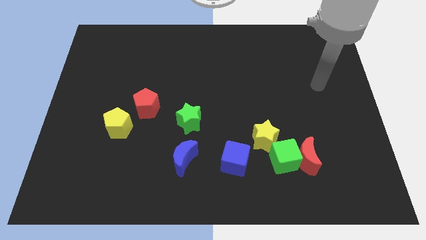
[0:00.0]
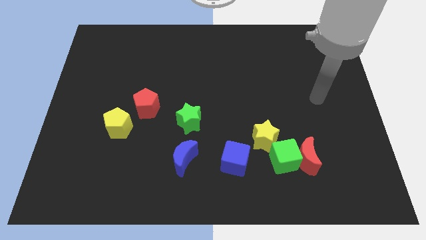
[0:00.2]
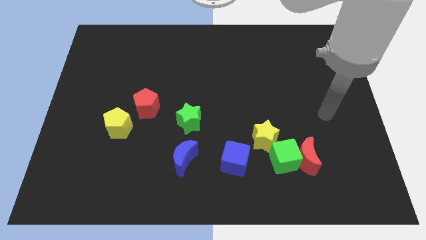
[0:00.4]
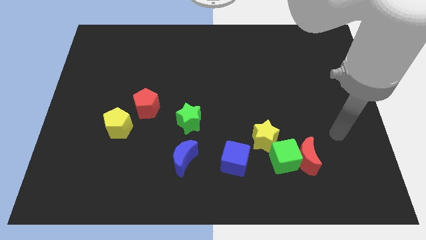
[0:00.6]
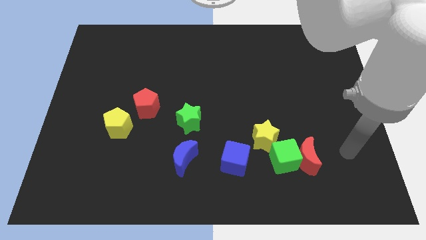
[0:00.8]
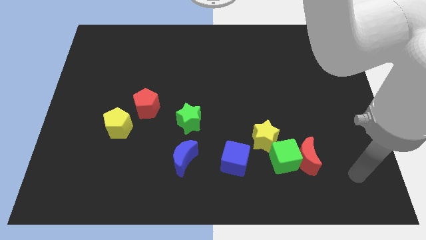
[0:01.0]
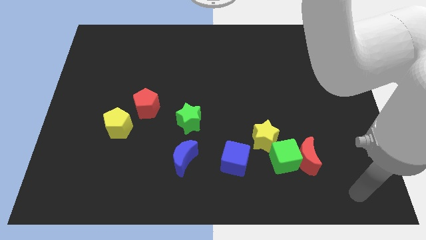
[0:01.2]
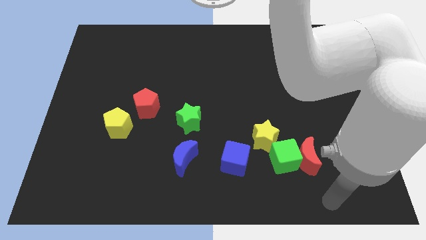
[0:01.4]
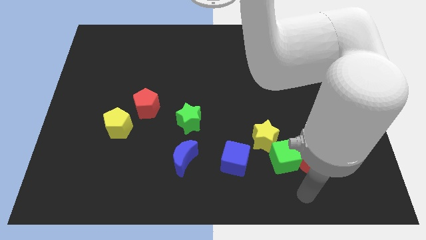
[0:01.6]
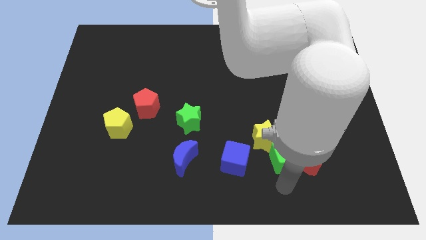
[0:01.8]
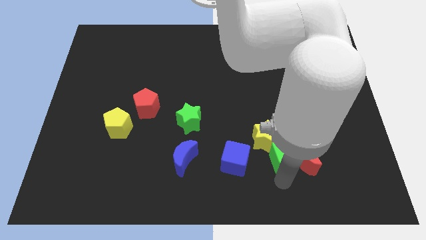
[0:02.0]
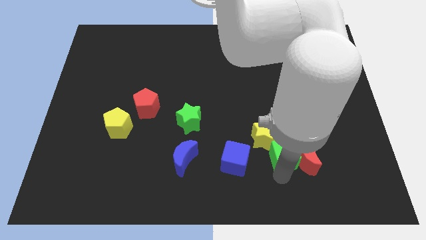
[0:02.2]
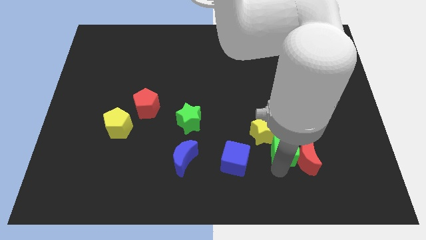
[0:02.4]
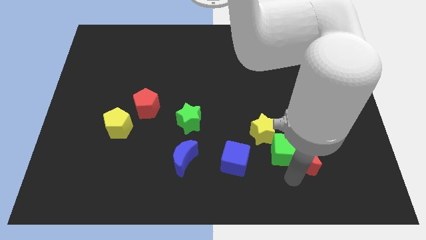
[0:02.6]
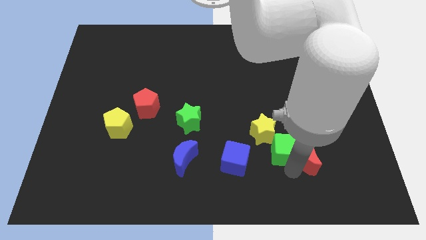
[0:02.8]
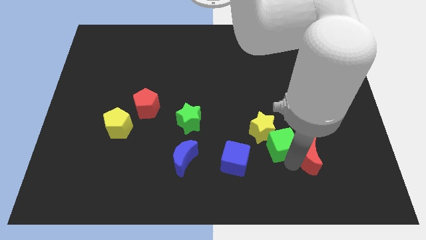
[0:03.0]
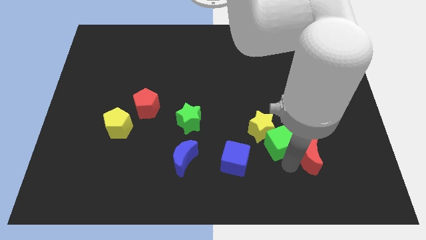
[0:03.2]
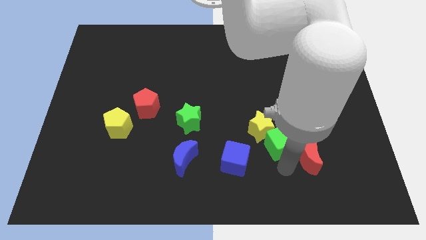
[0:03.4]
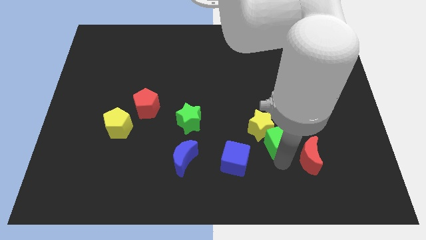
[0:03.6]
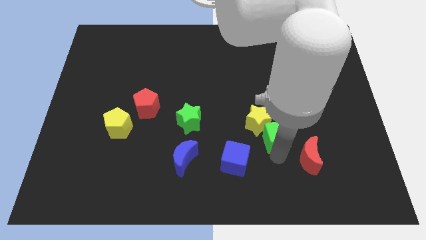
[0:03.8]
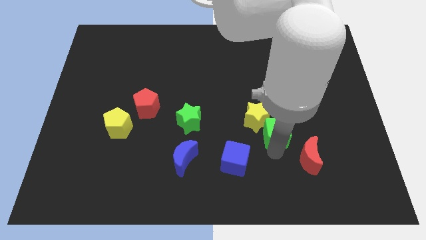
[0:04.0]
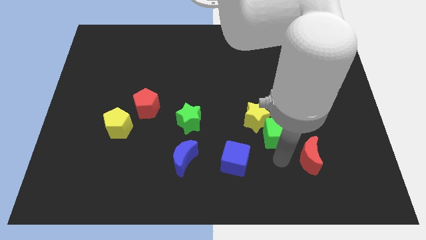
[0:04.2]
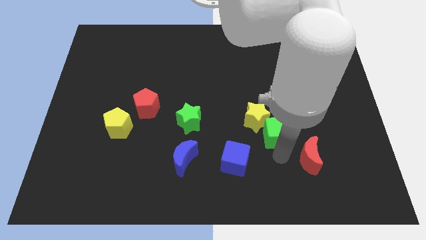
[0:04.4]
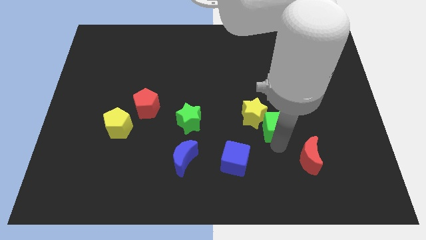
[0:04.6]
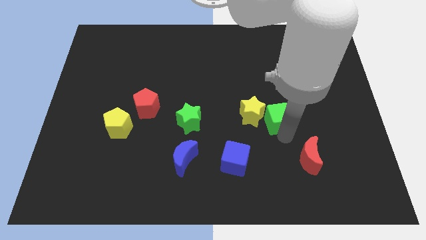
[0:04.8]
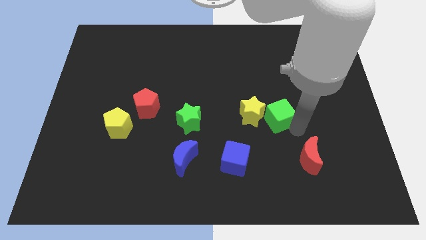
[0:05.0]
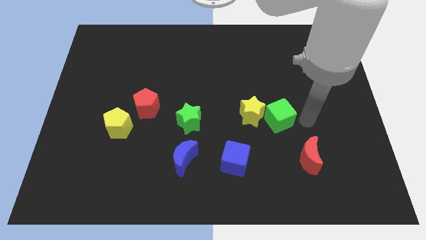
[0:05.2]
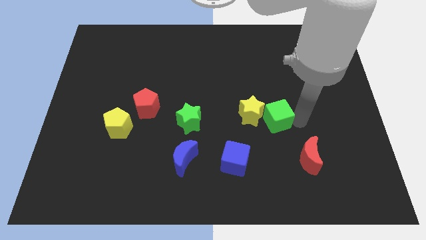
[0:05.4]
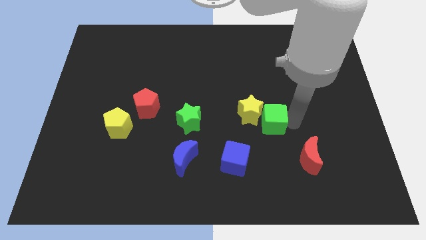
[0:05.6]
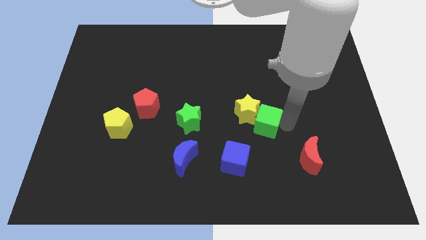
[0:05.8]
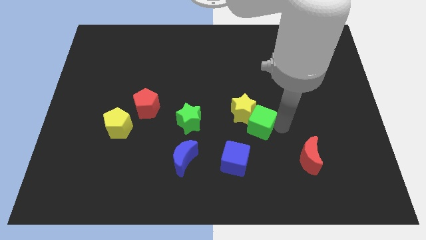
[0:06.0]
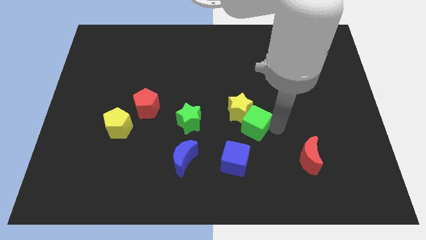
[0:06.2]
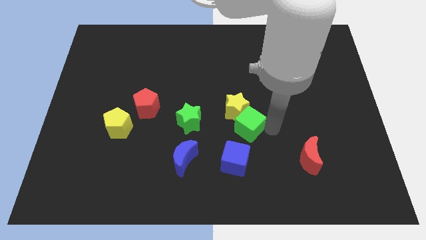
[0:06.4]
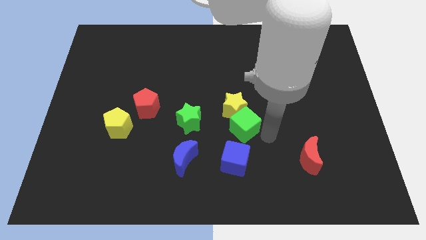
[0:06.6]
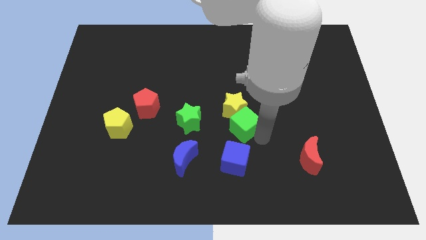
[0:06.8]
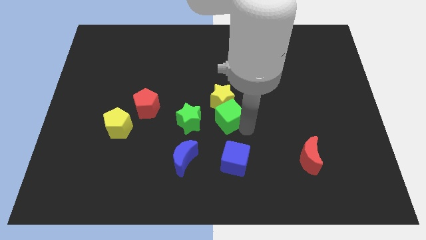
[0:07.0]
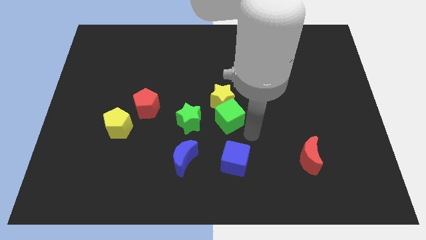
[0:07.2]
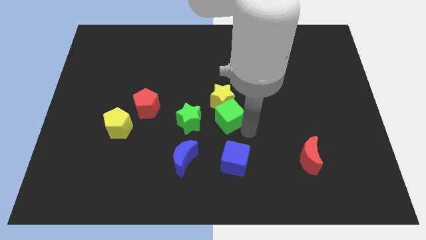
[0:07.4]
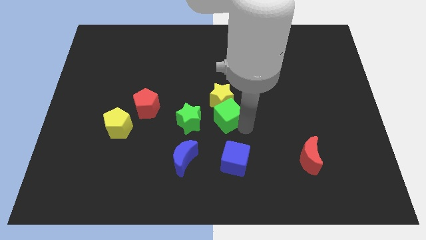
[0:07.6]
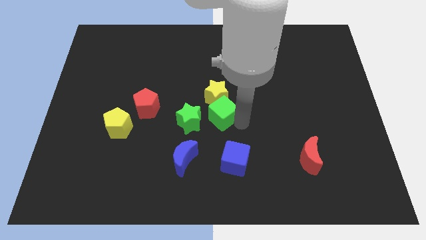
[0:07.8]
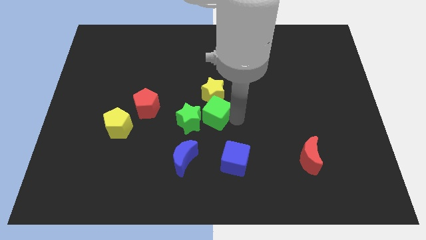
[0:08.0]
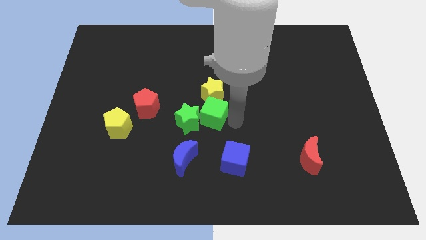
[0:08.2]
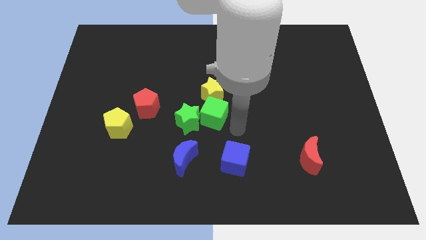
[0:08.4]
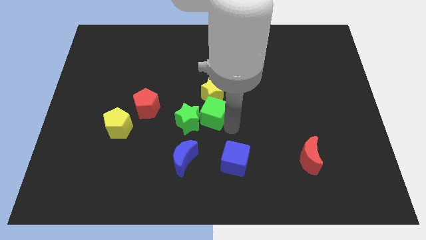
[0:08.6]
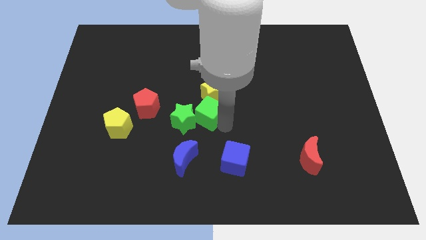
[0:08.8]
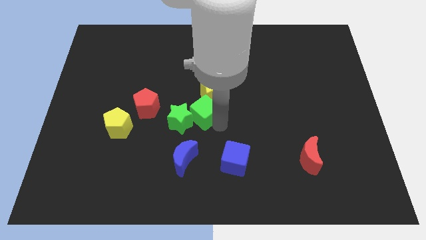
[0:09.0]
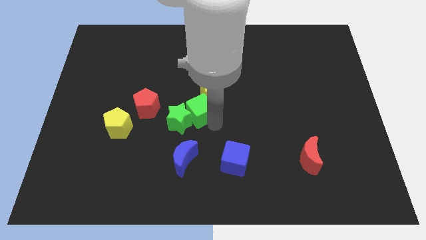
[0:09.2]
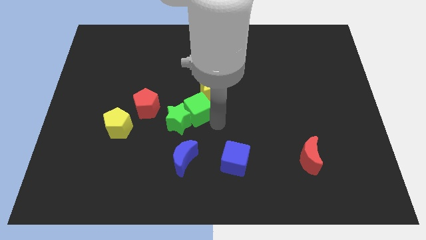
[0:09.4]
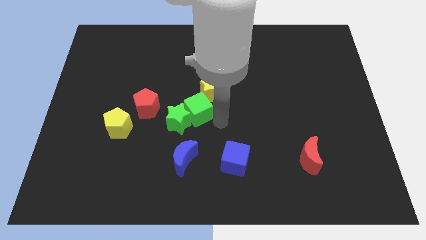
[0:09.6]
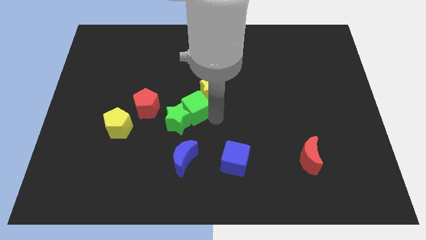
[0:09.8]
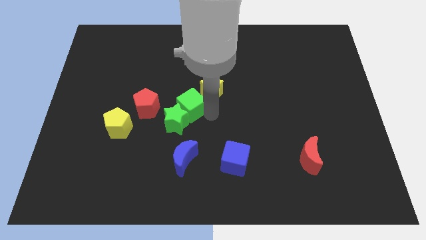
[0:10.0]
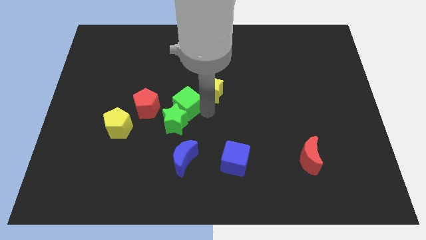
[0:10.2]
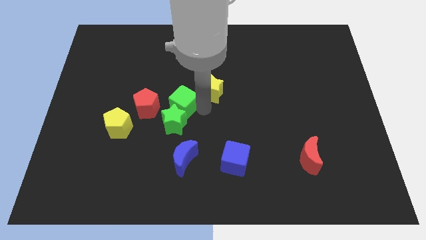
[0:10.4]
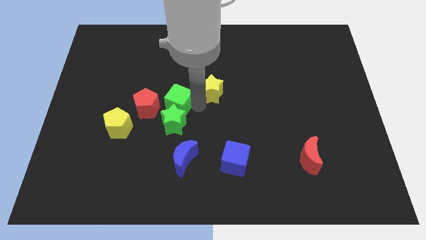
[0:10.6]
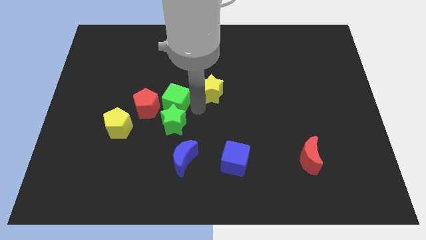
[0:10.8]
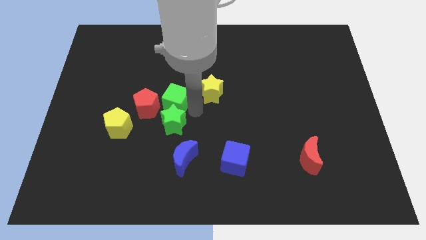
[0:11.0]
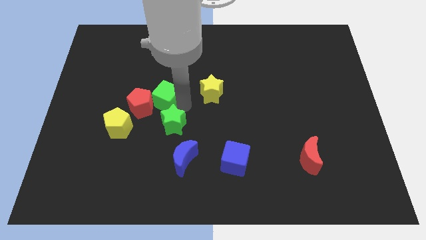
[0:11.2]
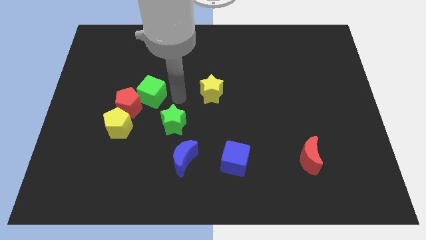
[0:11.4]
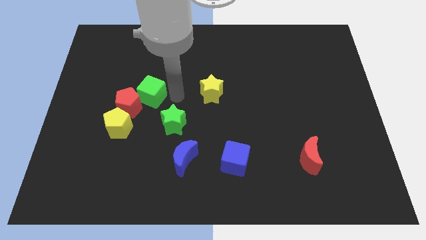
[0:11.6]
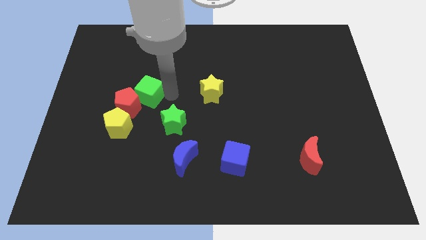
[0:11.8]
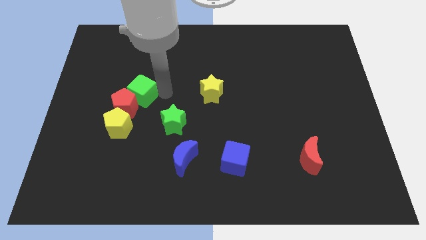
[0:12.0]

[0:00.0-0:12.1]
move the green cube to the top of the yellow pentagon

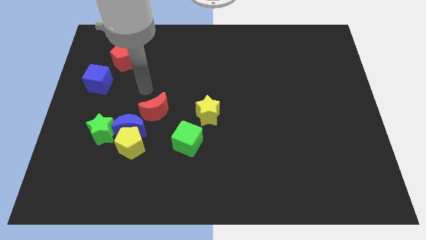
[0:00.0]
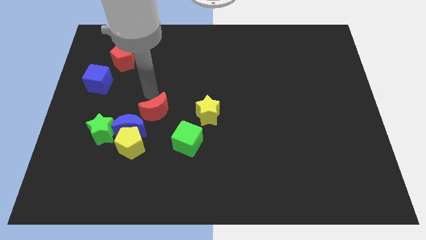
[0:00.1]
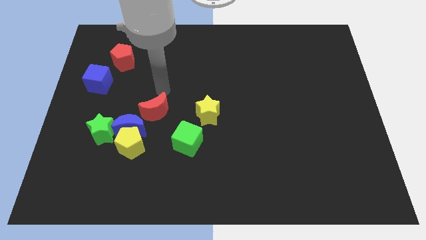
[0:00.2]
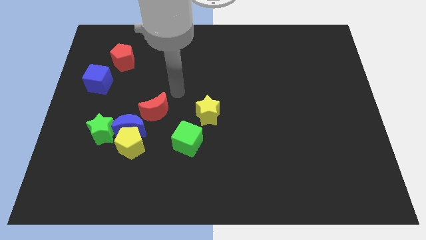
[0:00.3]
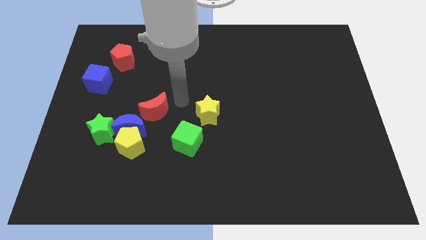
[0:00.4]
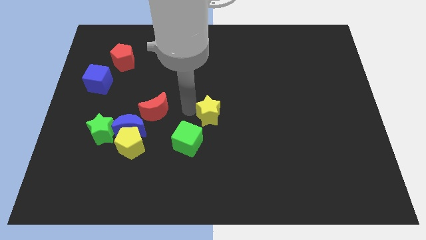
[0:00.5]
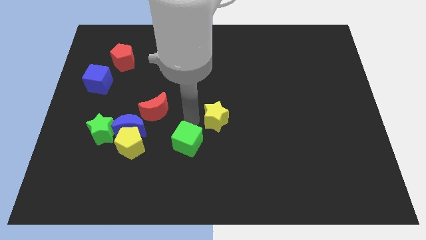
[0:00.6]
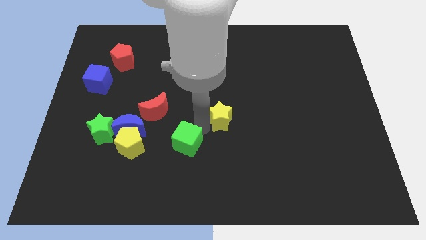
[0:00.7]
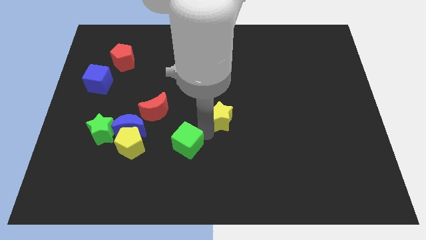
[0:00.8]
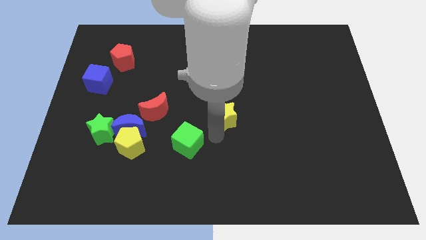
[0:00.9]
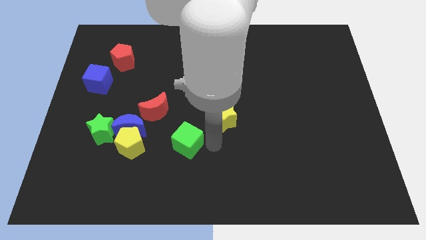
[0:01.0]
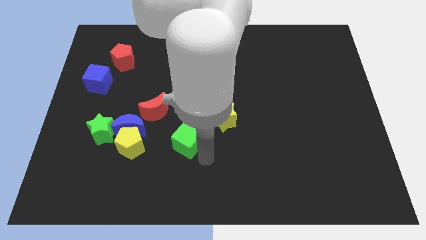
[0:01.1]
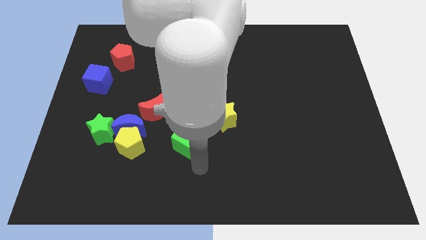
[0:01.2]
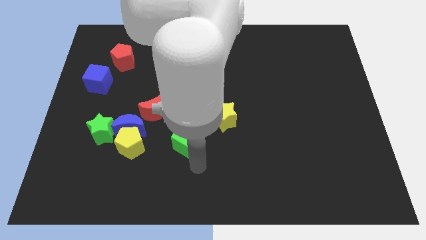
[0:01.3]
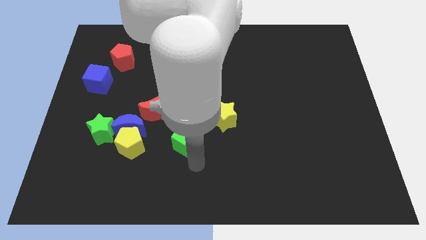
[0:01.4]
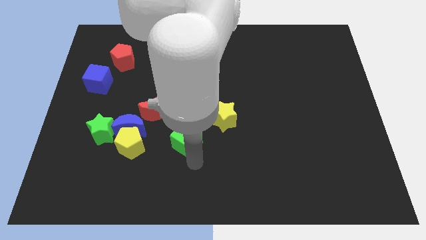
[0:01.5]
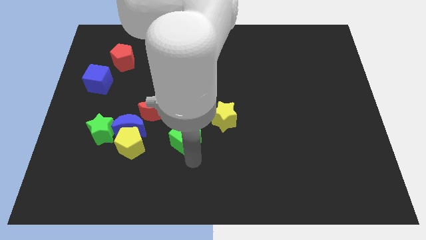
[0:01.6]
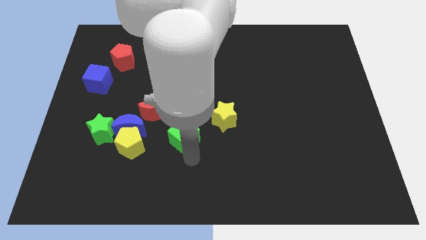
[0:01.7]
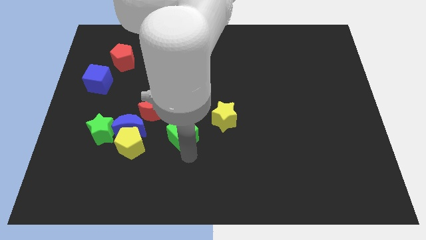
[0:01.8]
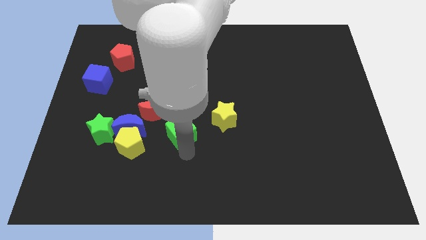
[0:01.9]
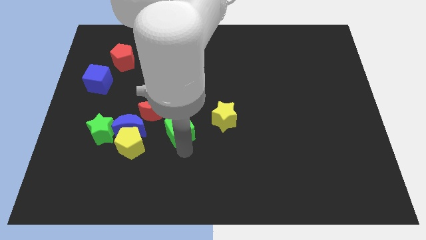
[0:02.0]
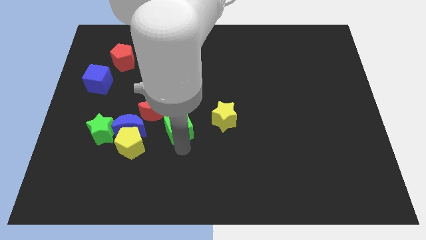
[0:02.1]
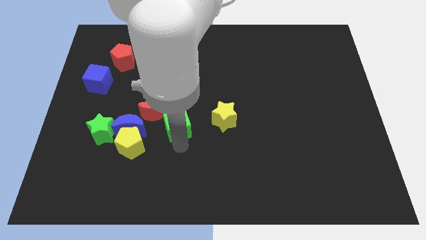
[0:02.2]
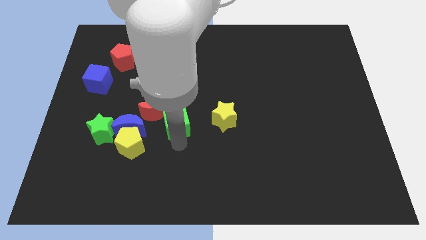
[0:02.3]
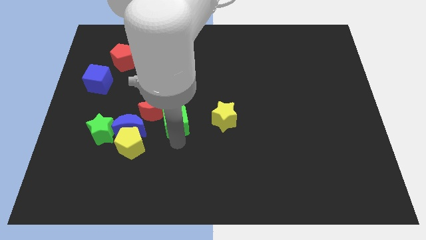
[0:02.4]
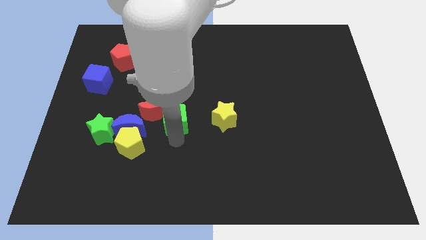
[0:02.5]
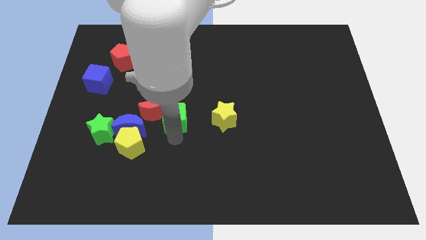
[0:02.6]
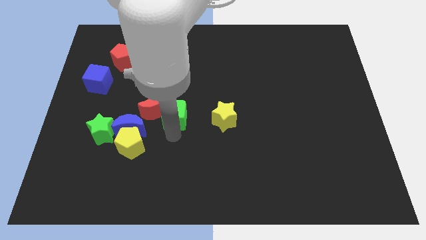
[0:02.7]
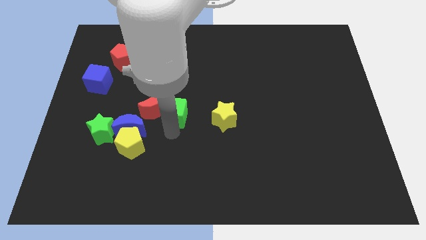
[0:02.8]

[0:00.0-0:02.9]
push the green cube diagonally up and to the right of the red moon
